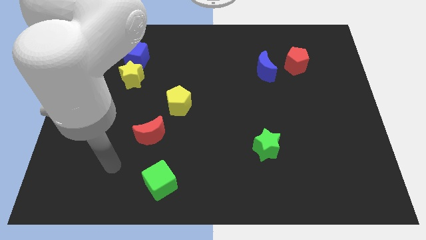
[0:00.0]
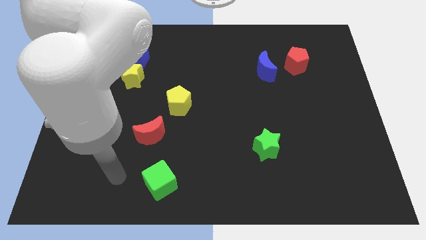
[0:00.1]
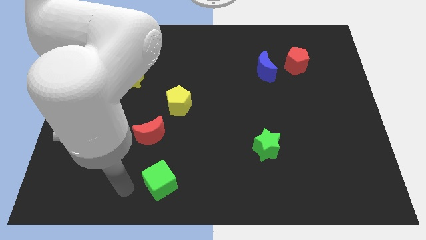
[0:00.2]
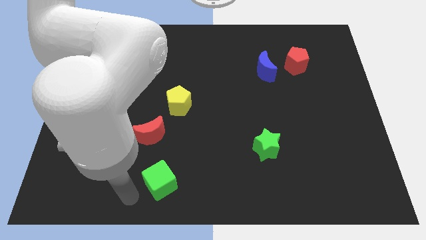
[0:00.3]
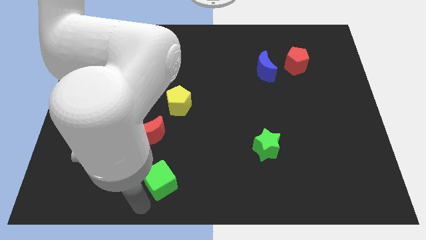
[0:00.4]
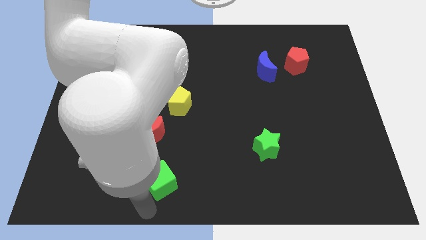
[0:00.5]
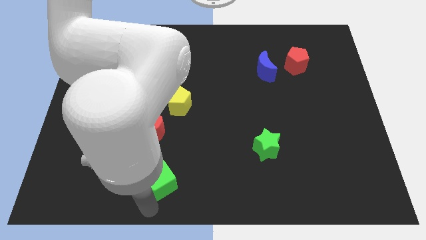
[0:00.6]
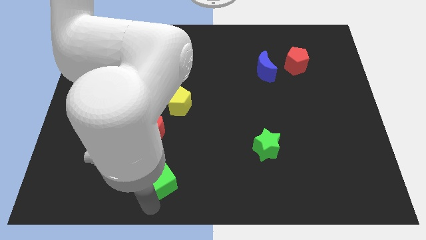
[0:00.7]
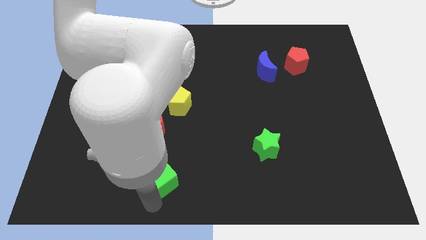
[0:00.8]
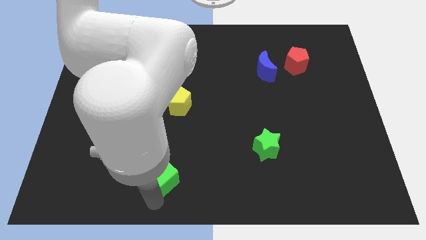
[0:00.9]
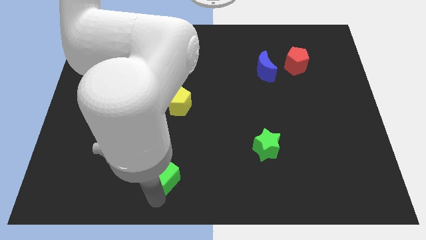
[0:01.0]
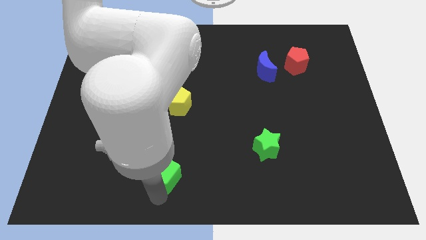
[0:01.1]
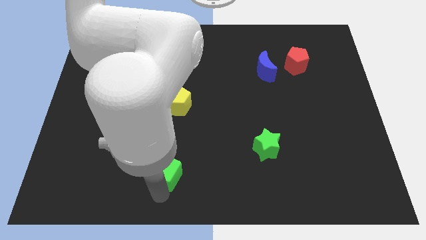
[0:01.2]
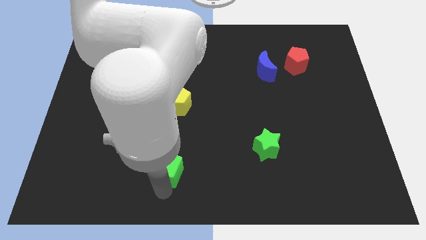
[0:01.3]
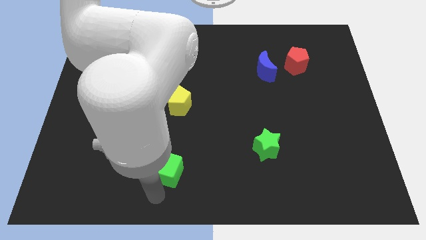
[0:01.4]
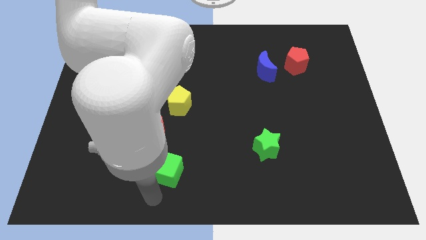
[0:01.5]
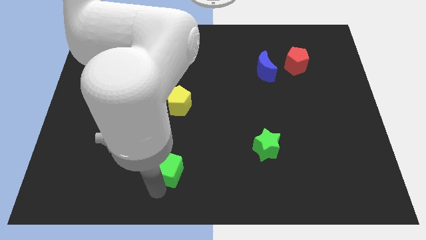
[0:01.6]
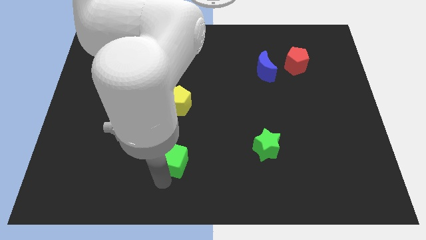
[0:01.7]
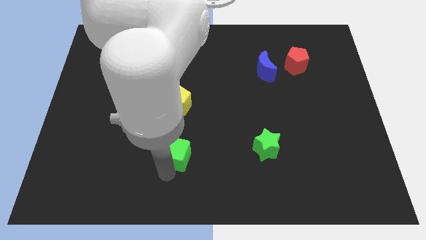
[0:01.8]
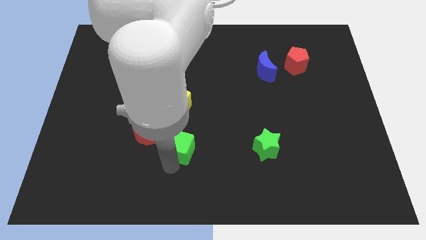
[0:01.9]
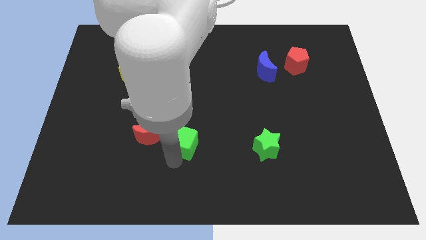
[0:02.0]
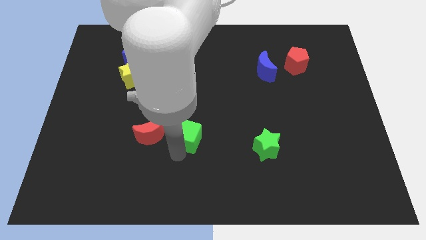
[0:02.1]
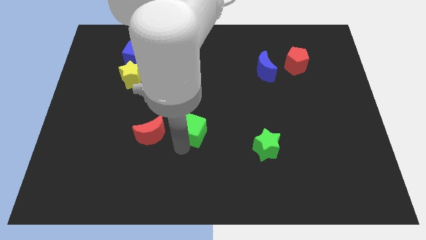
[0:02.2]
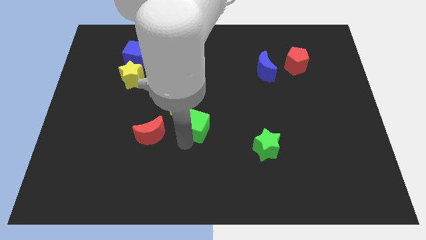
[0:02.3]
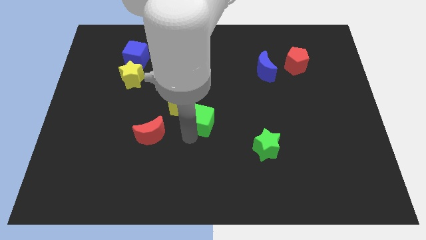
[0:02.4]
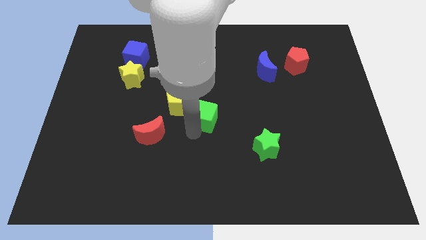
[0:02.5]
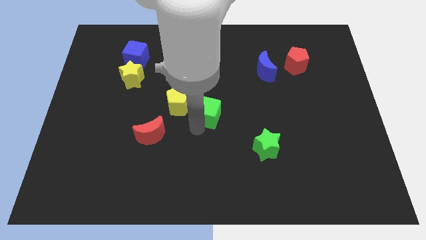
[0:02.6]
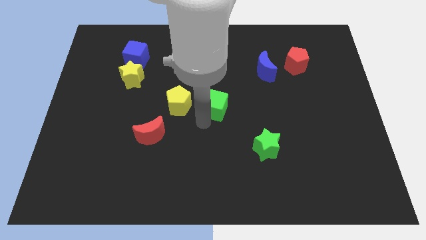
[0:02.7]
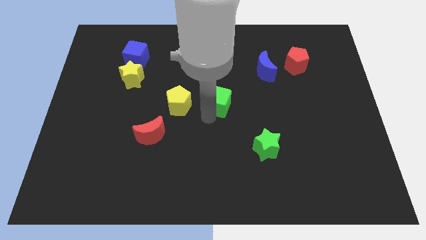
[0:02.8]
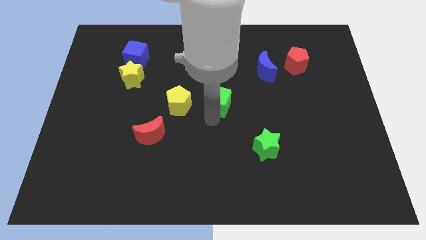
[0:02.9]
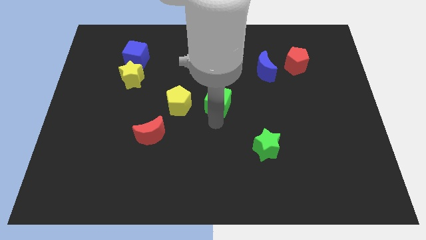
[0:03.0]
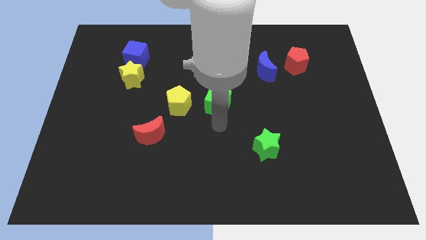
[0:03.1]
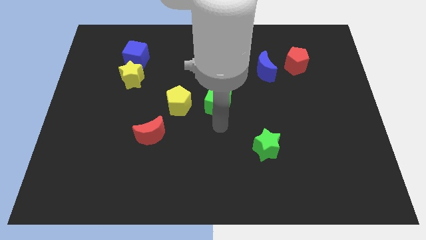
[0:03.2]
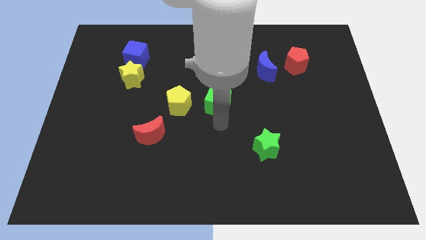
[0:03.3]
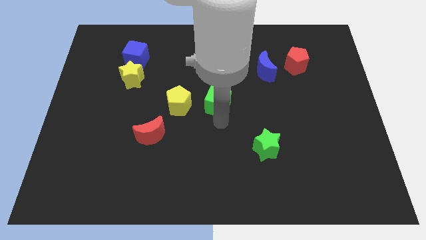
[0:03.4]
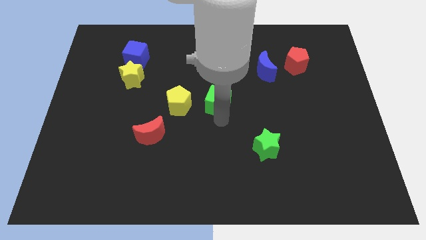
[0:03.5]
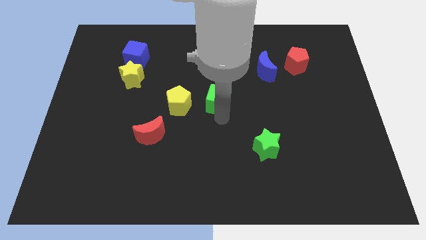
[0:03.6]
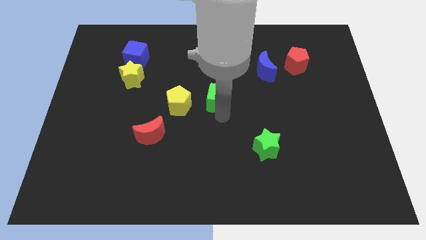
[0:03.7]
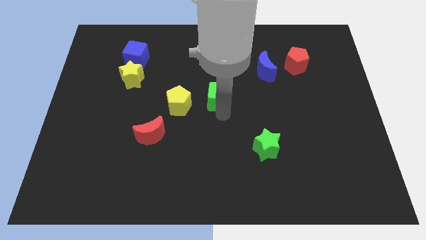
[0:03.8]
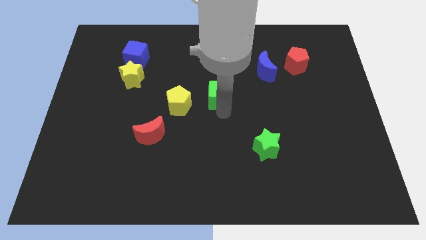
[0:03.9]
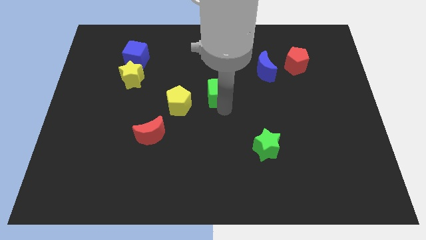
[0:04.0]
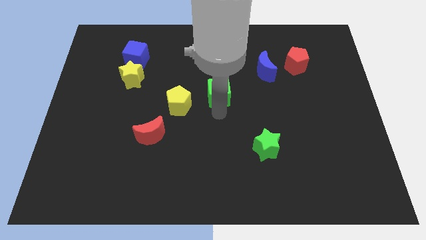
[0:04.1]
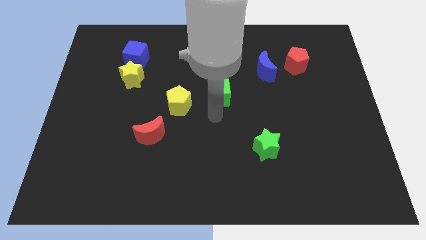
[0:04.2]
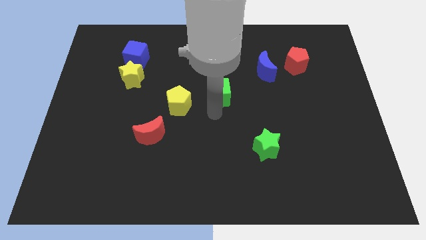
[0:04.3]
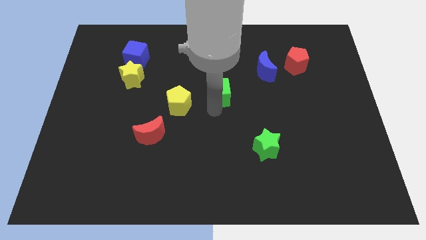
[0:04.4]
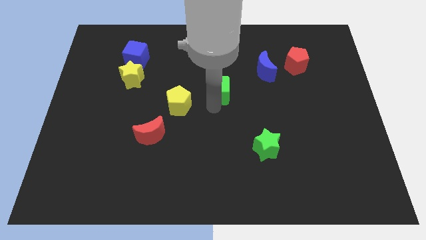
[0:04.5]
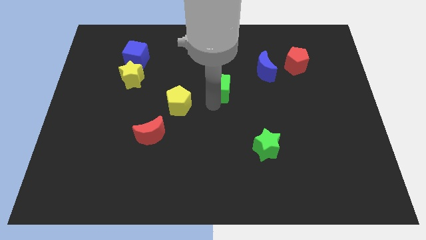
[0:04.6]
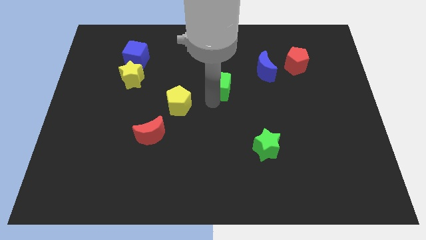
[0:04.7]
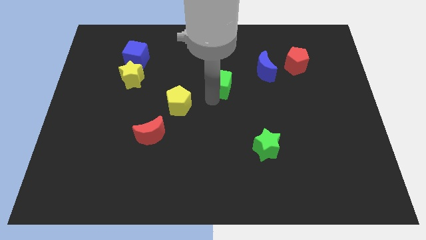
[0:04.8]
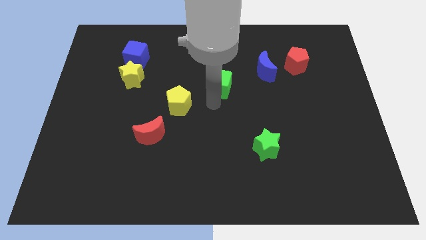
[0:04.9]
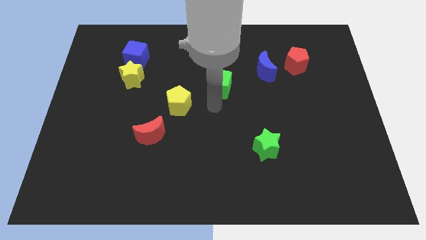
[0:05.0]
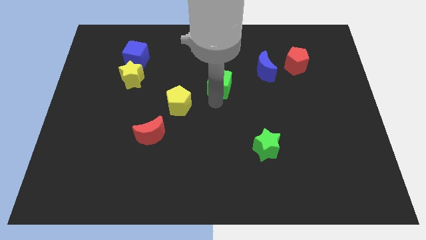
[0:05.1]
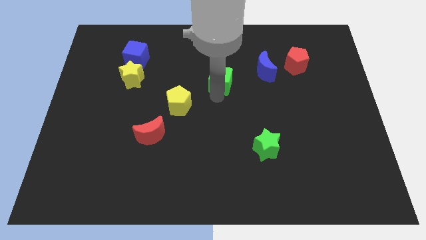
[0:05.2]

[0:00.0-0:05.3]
slide the green cube to the left side of the blue moon

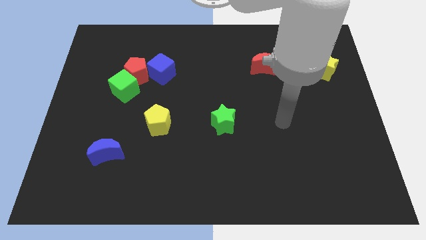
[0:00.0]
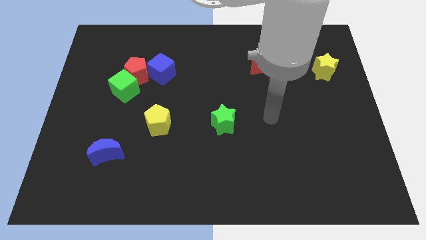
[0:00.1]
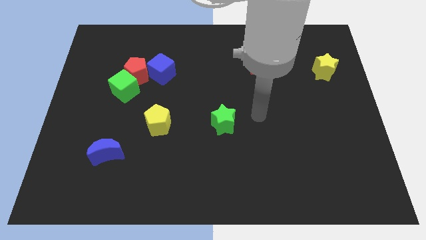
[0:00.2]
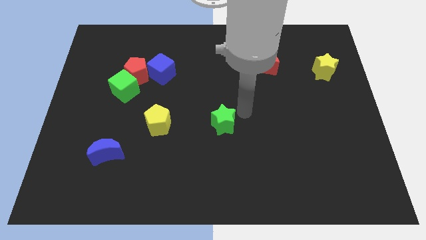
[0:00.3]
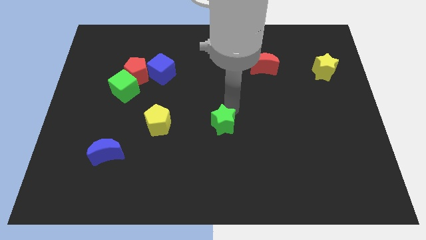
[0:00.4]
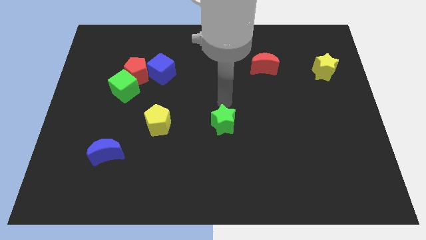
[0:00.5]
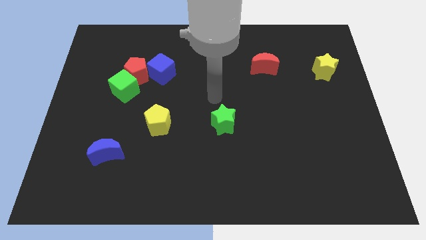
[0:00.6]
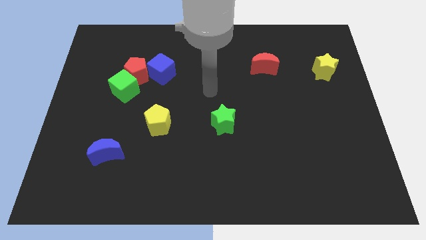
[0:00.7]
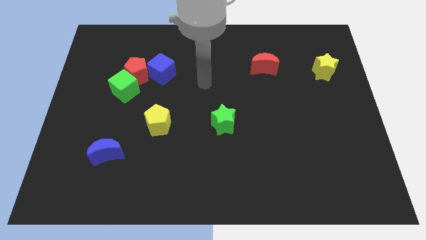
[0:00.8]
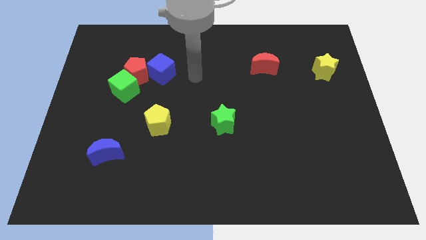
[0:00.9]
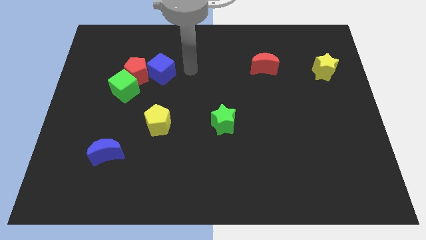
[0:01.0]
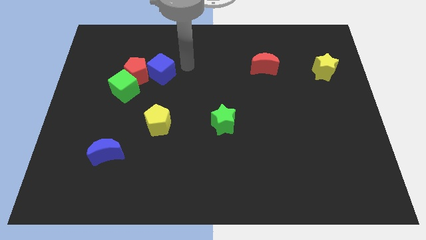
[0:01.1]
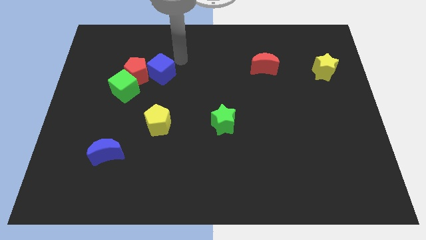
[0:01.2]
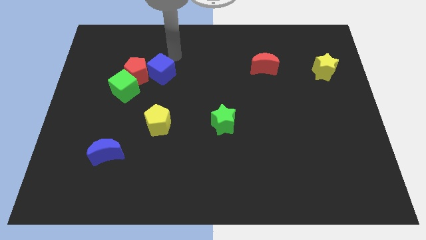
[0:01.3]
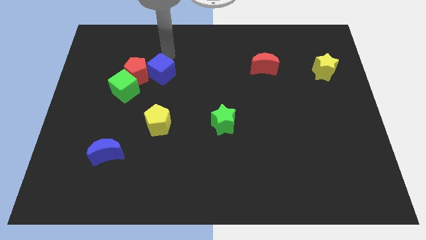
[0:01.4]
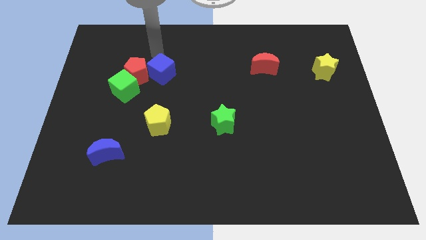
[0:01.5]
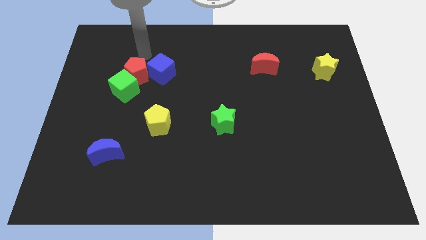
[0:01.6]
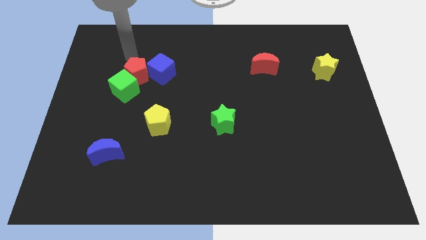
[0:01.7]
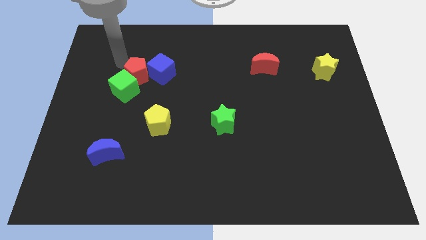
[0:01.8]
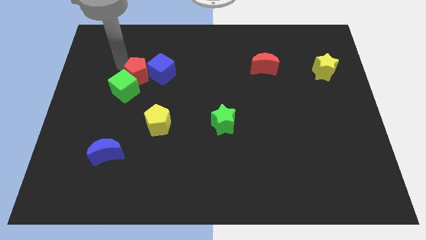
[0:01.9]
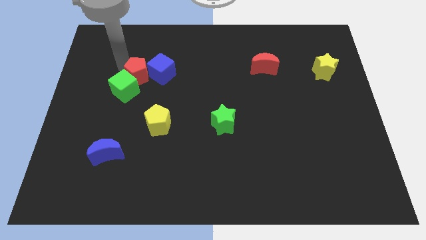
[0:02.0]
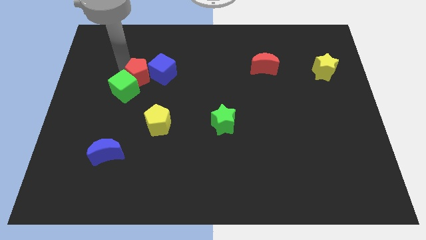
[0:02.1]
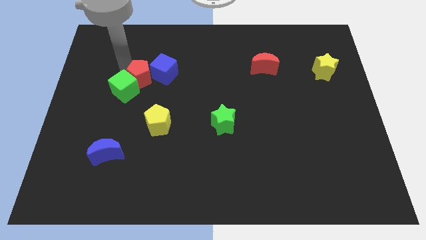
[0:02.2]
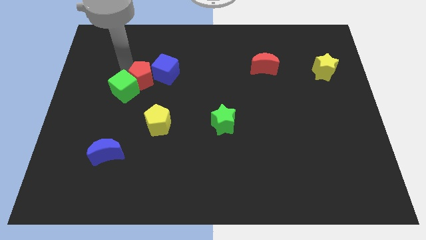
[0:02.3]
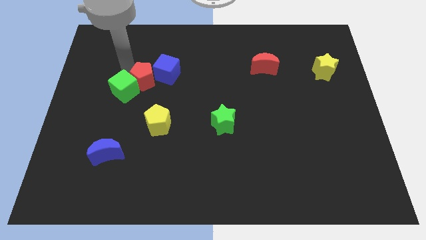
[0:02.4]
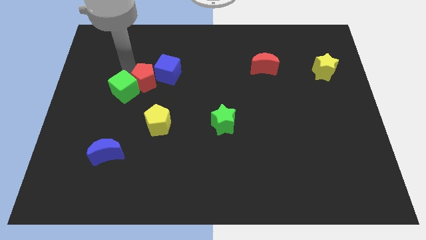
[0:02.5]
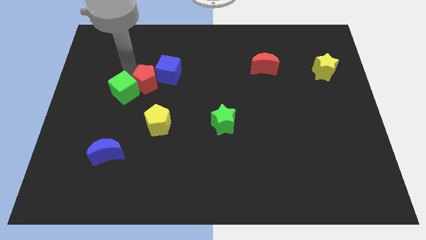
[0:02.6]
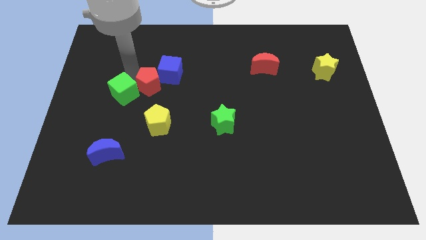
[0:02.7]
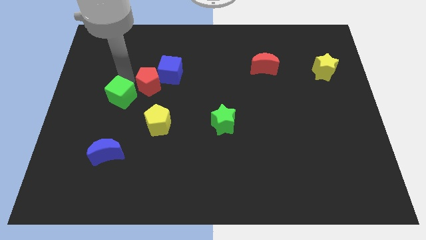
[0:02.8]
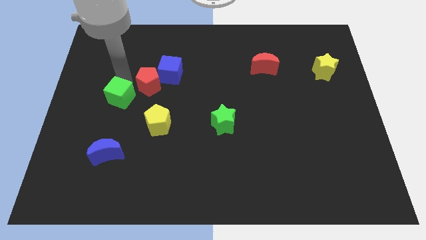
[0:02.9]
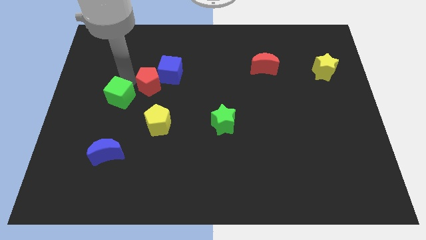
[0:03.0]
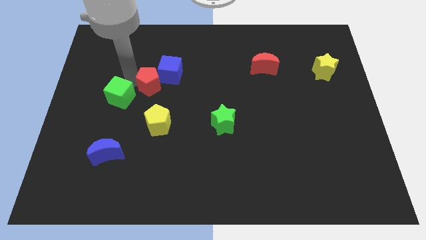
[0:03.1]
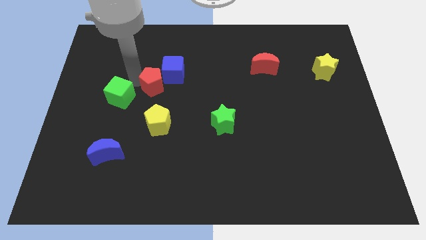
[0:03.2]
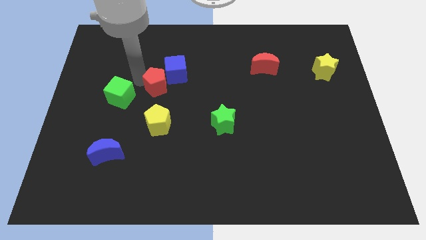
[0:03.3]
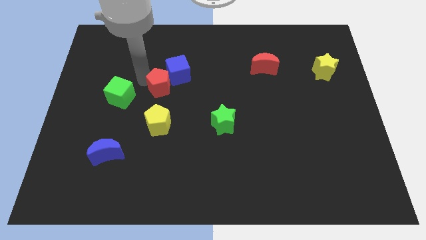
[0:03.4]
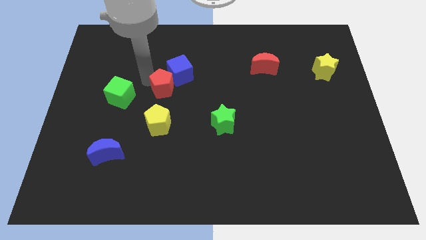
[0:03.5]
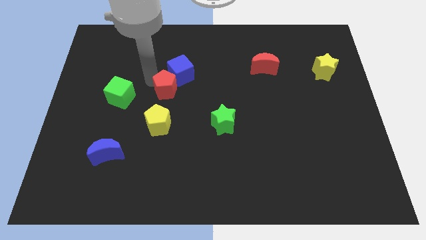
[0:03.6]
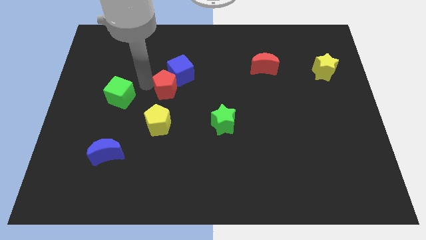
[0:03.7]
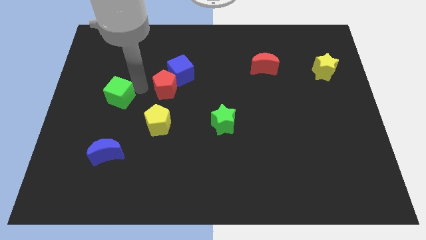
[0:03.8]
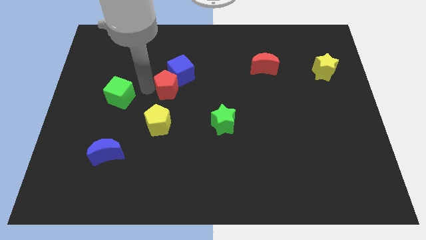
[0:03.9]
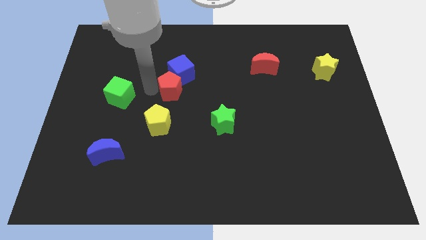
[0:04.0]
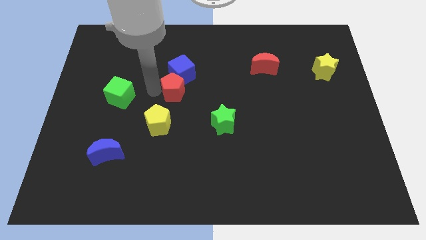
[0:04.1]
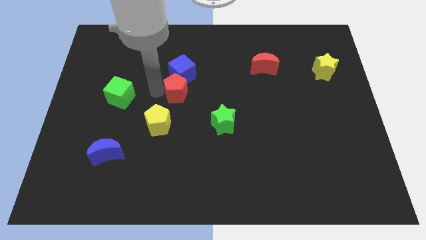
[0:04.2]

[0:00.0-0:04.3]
slide the red pentagon to the bottom right of the blue cube
